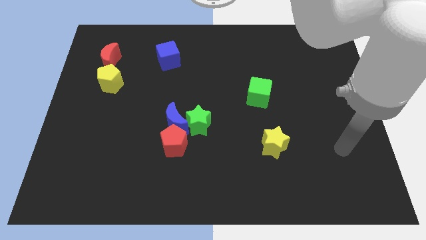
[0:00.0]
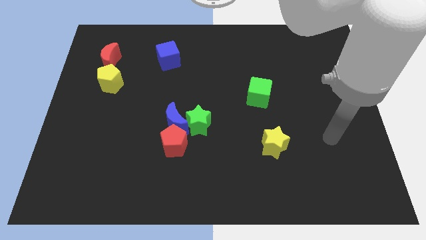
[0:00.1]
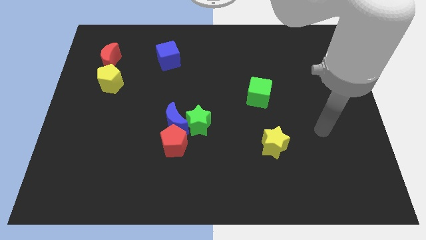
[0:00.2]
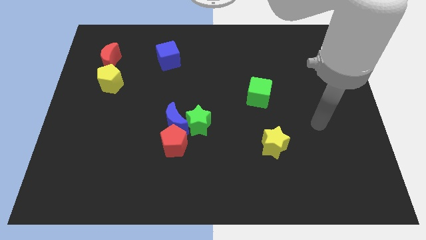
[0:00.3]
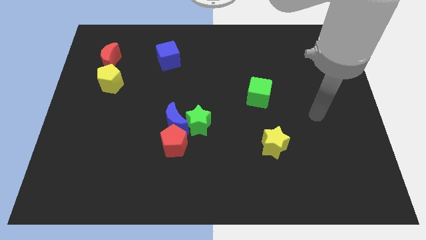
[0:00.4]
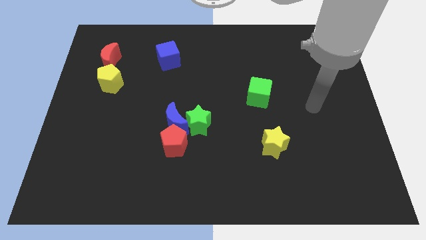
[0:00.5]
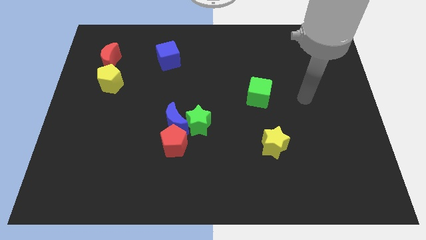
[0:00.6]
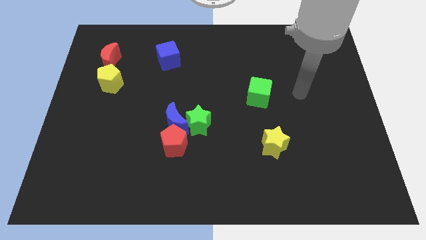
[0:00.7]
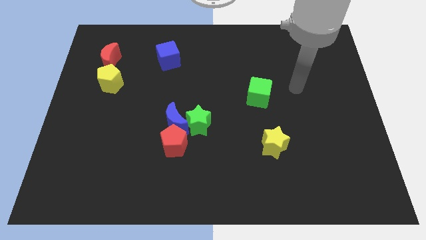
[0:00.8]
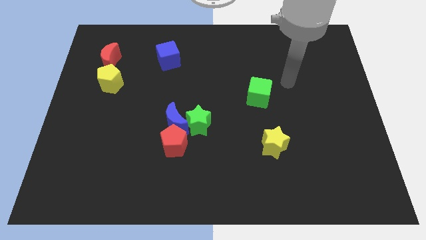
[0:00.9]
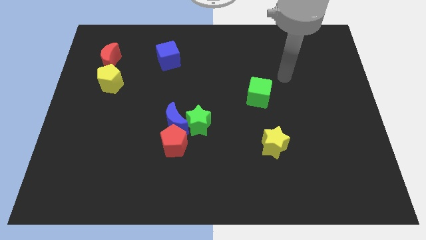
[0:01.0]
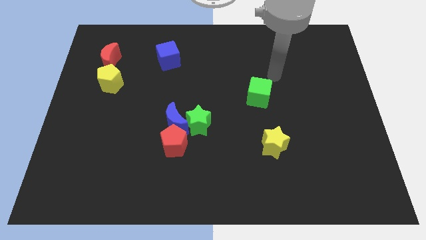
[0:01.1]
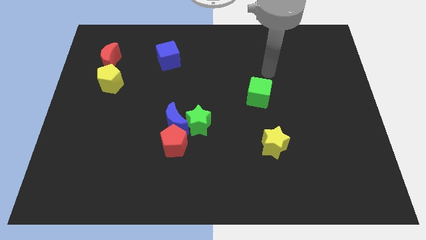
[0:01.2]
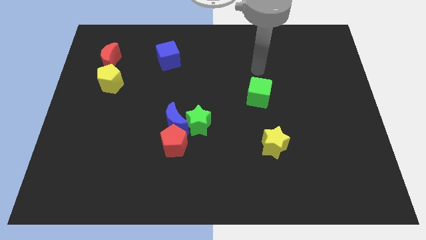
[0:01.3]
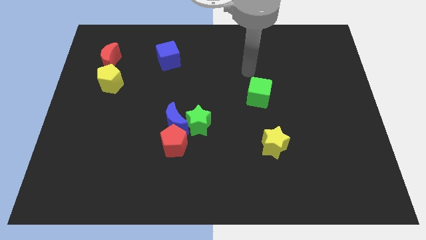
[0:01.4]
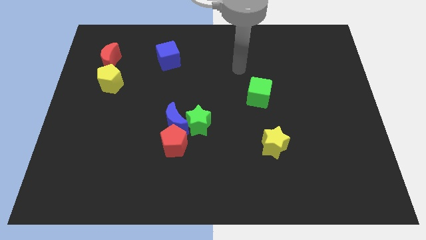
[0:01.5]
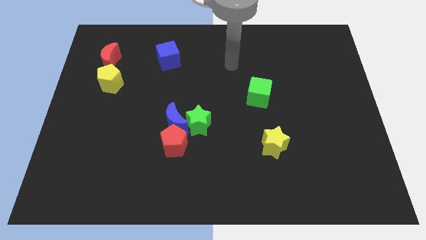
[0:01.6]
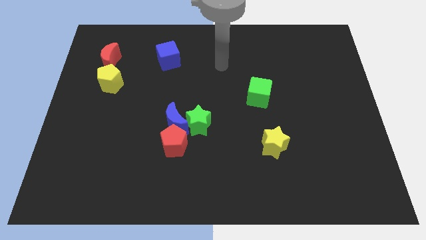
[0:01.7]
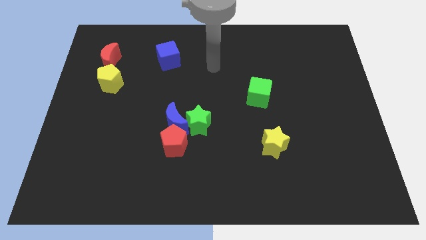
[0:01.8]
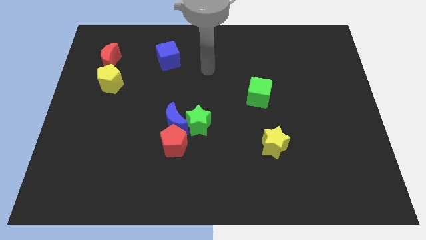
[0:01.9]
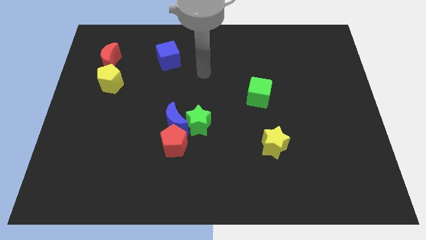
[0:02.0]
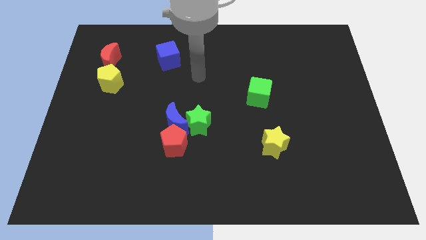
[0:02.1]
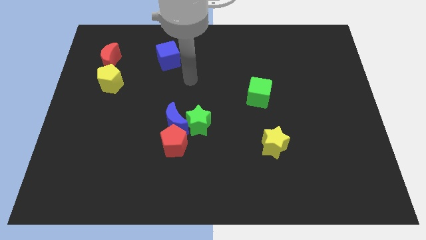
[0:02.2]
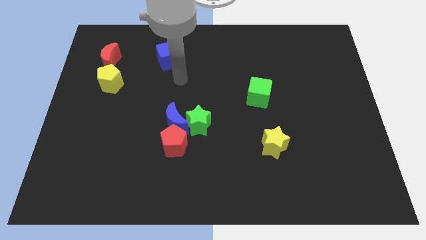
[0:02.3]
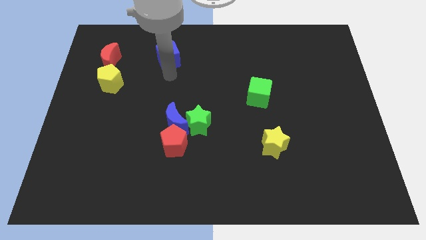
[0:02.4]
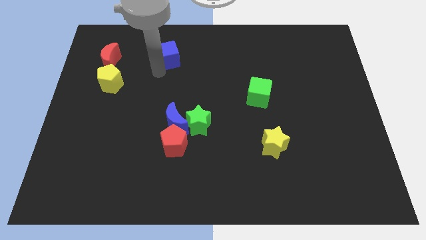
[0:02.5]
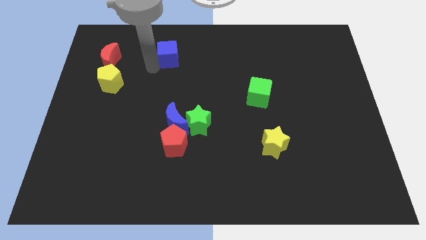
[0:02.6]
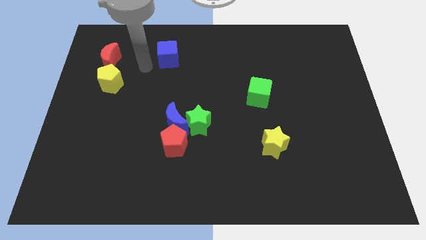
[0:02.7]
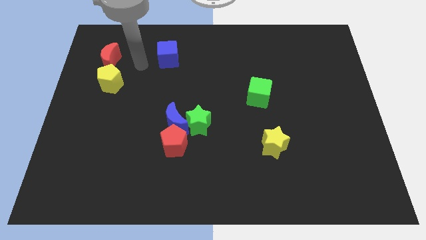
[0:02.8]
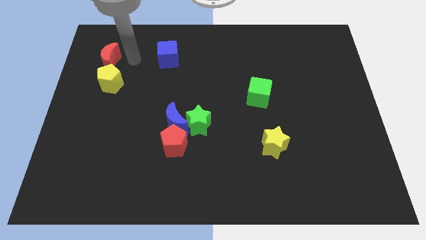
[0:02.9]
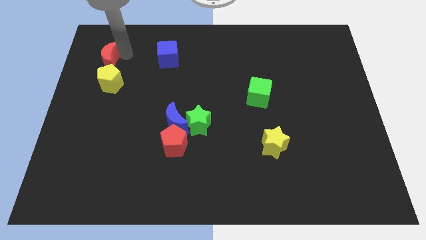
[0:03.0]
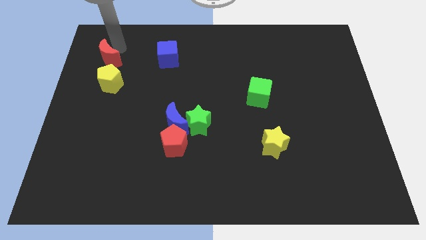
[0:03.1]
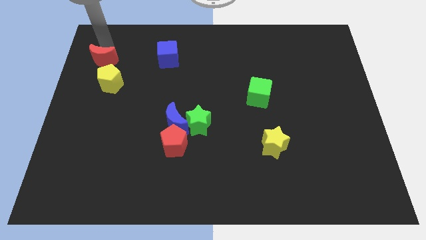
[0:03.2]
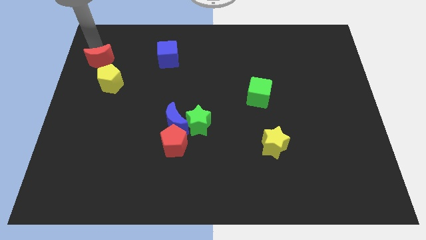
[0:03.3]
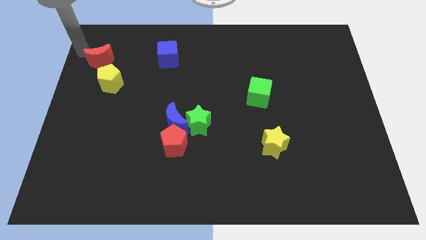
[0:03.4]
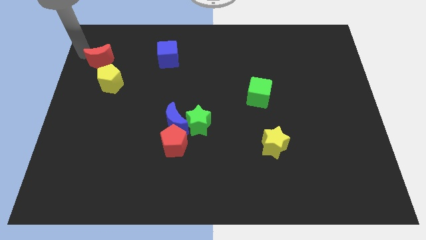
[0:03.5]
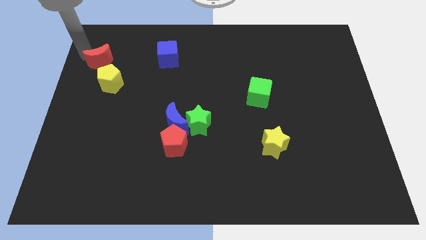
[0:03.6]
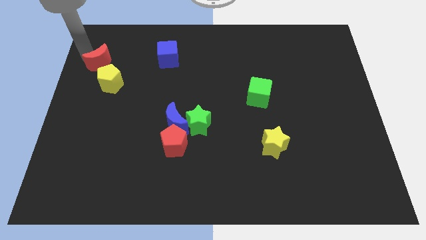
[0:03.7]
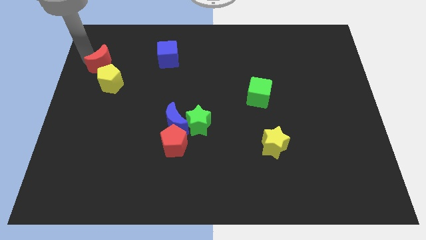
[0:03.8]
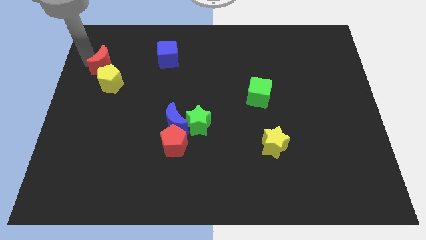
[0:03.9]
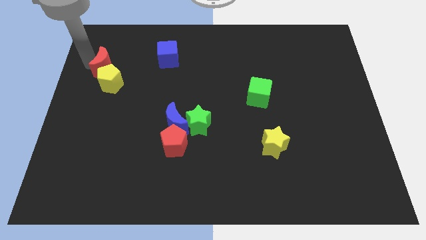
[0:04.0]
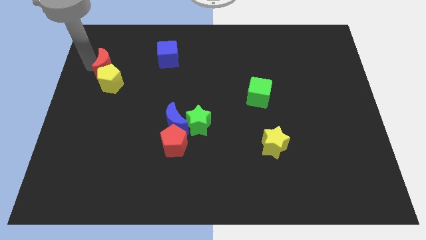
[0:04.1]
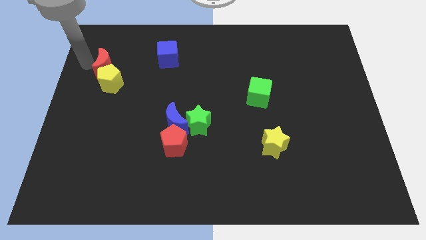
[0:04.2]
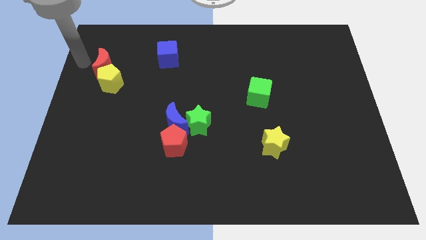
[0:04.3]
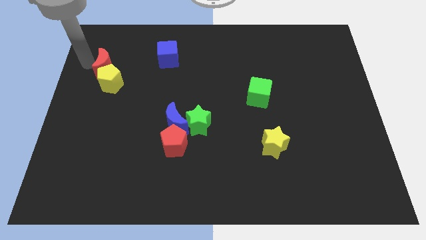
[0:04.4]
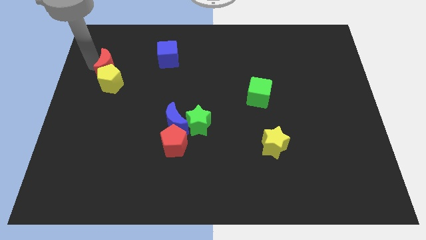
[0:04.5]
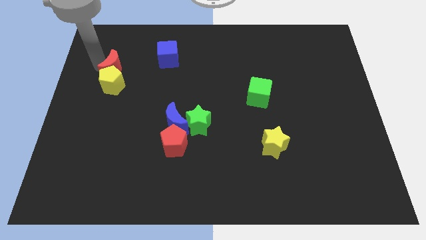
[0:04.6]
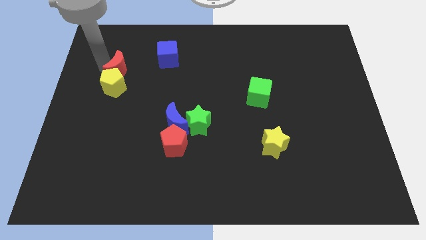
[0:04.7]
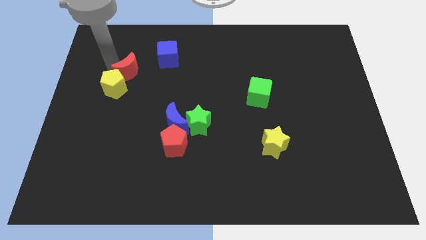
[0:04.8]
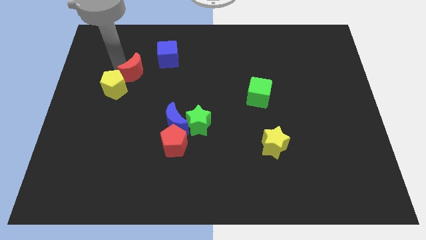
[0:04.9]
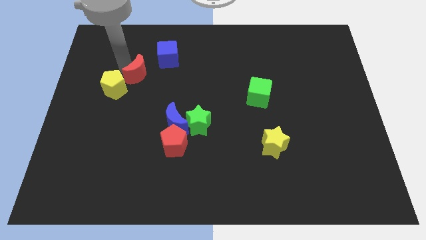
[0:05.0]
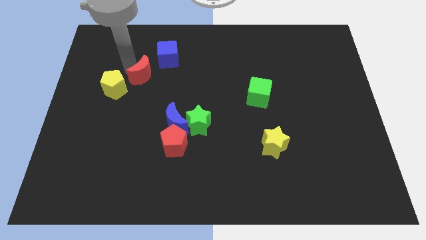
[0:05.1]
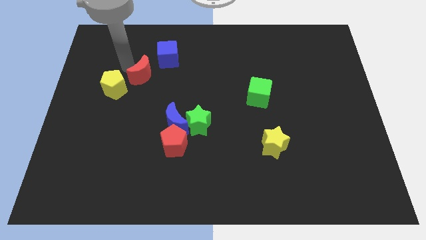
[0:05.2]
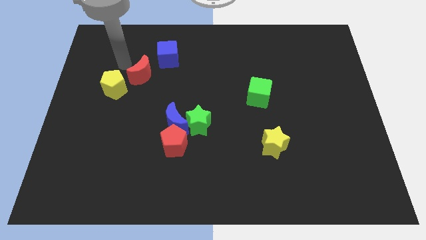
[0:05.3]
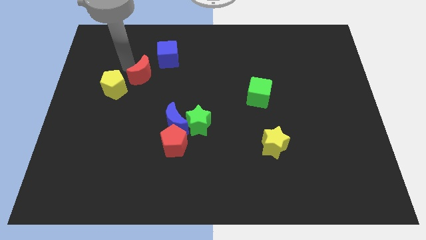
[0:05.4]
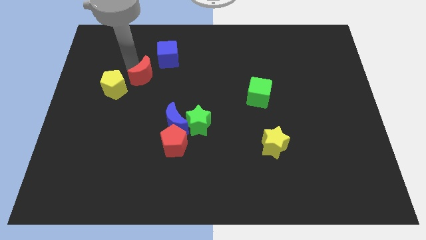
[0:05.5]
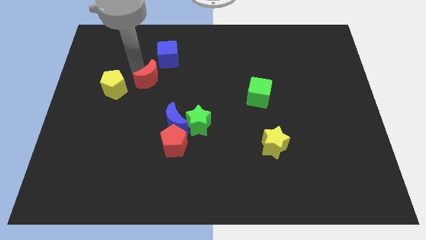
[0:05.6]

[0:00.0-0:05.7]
push the red moon below the blue cube
